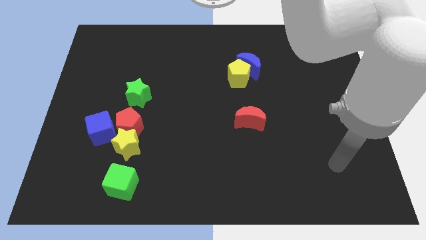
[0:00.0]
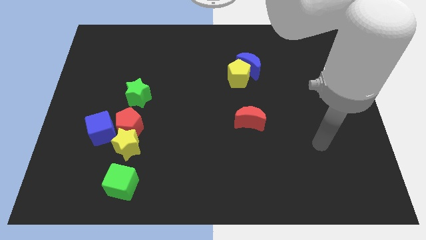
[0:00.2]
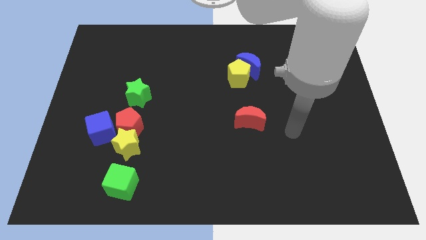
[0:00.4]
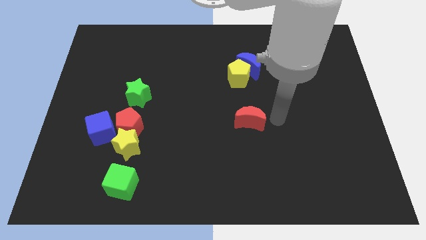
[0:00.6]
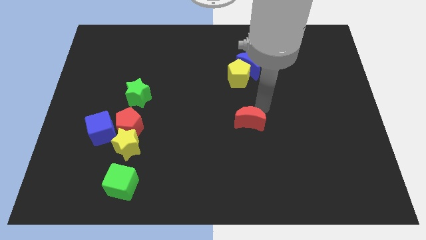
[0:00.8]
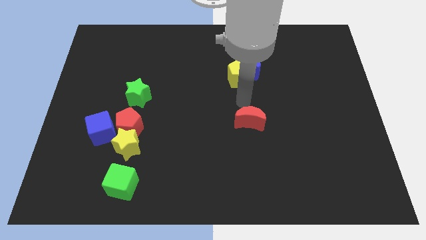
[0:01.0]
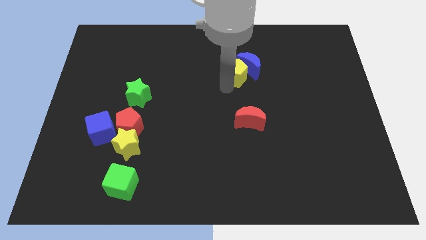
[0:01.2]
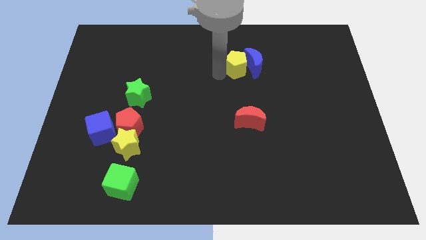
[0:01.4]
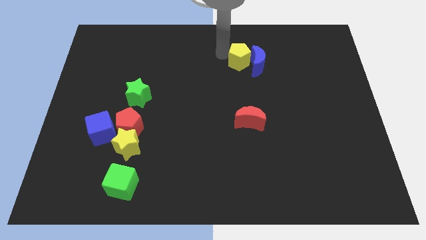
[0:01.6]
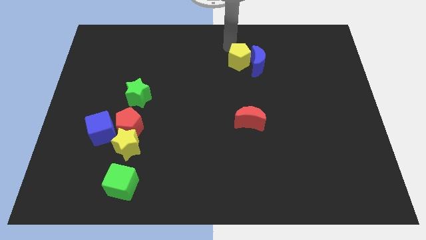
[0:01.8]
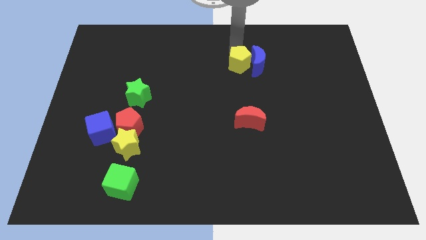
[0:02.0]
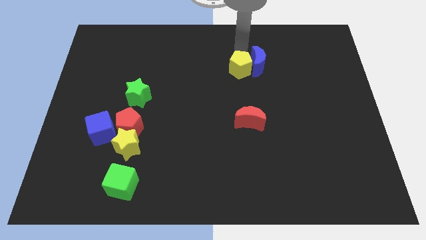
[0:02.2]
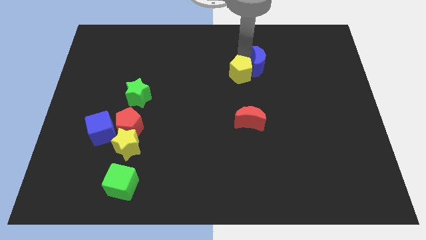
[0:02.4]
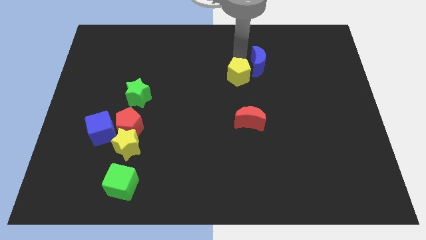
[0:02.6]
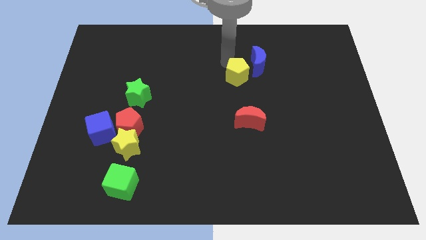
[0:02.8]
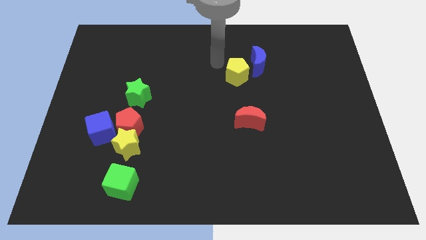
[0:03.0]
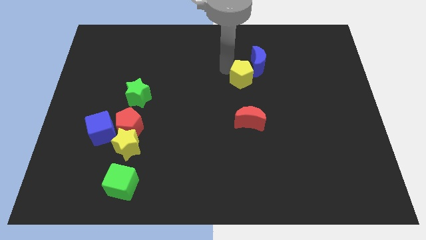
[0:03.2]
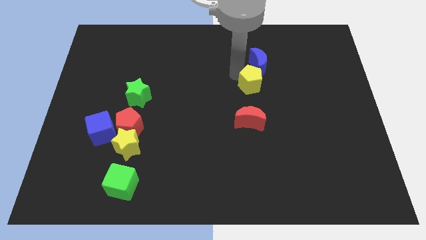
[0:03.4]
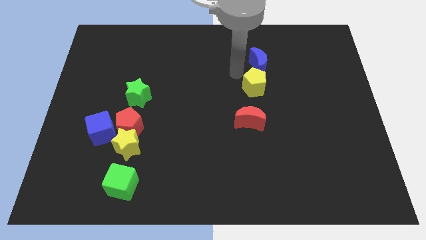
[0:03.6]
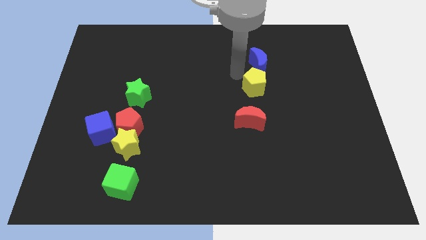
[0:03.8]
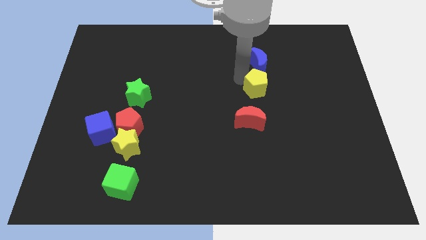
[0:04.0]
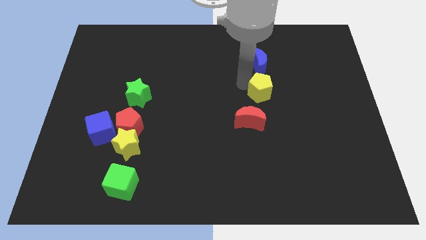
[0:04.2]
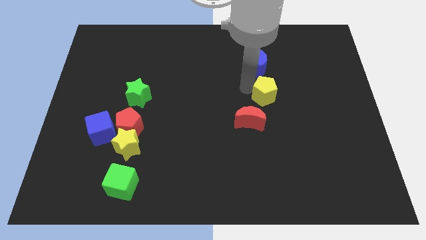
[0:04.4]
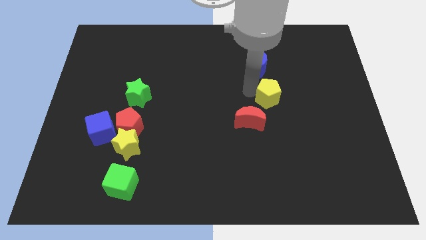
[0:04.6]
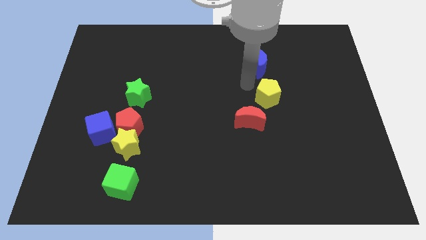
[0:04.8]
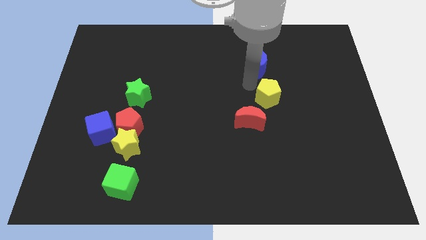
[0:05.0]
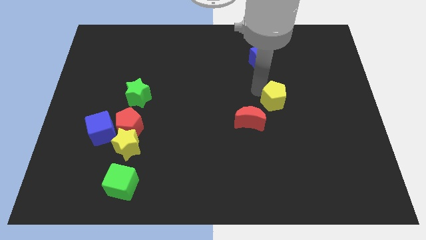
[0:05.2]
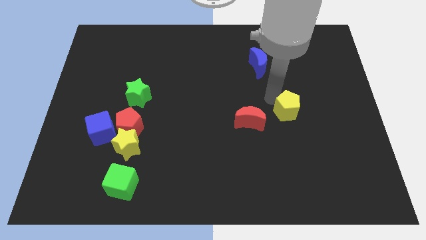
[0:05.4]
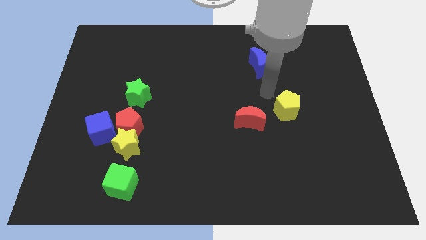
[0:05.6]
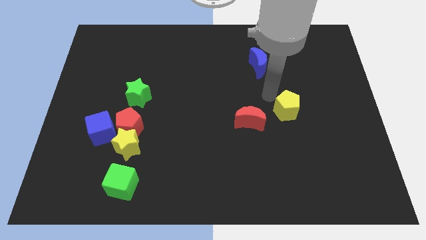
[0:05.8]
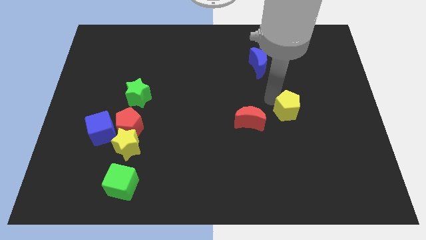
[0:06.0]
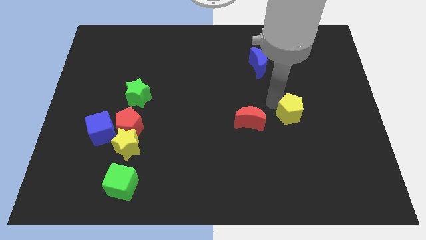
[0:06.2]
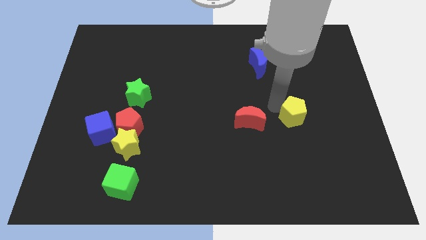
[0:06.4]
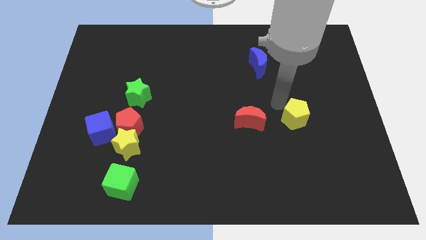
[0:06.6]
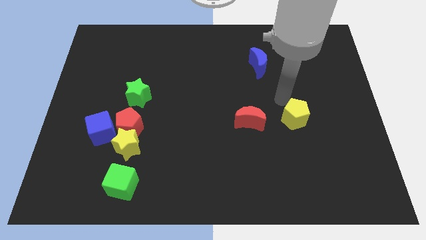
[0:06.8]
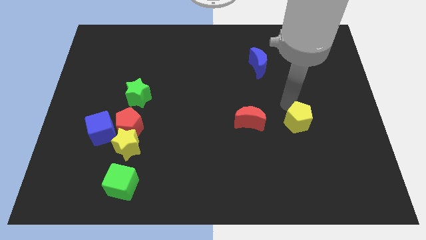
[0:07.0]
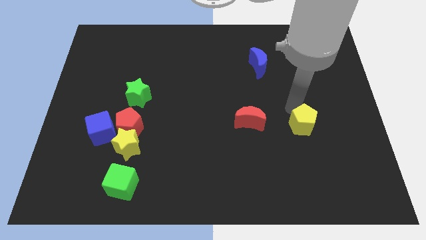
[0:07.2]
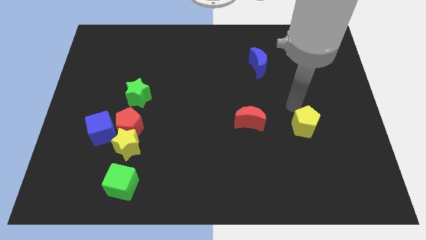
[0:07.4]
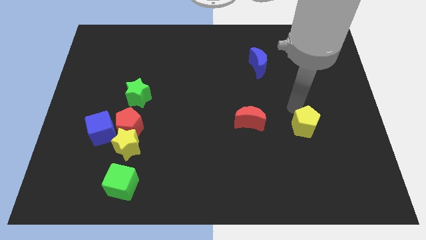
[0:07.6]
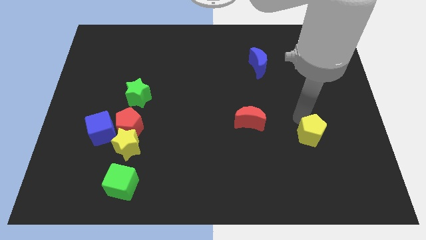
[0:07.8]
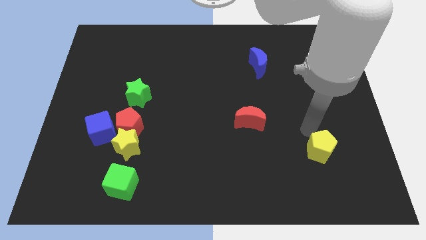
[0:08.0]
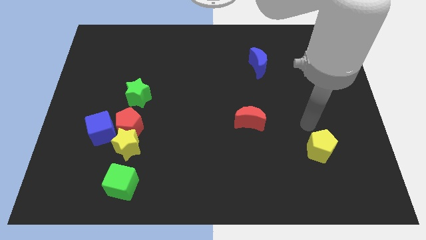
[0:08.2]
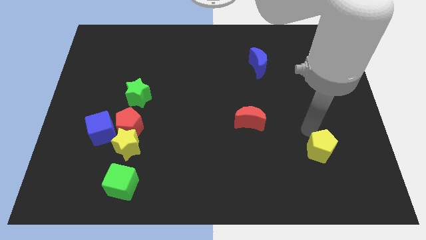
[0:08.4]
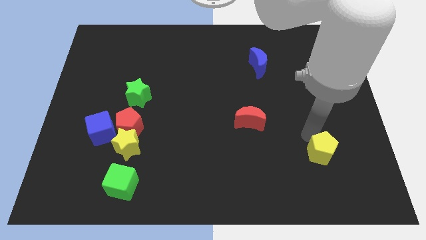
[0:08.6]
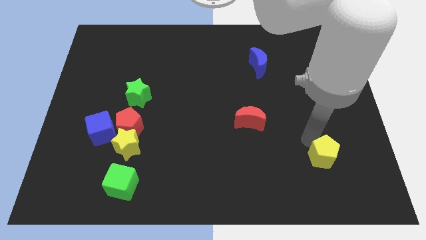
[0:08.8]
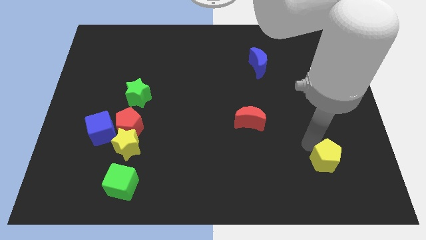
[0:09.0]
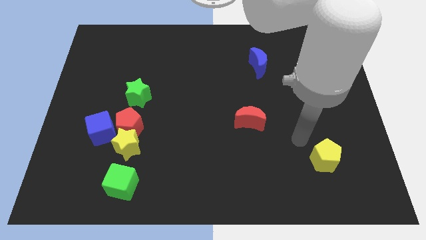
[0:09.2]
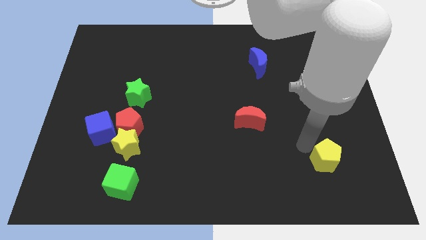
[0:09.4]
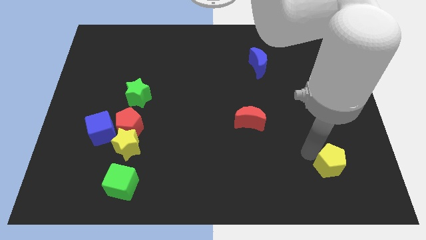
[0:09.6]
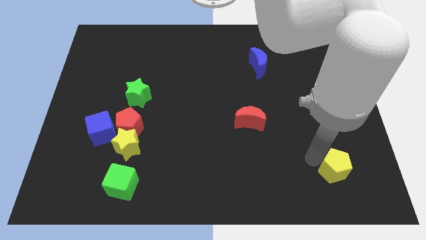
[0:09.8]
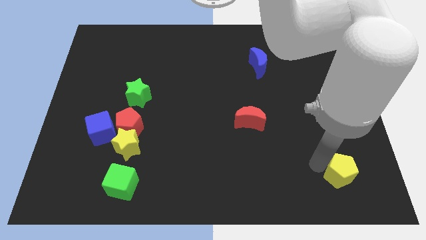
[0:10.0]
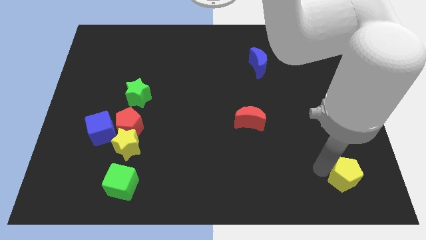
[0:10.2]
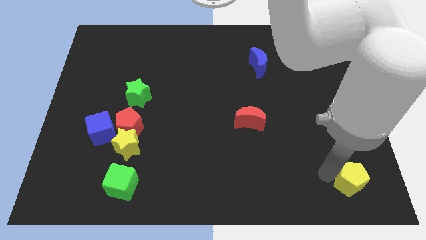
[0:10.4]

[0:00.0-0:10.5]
put the yellow pentagon to the bottom right corner
